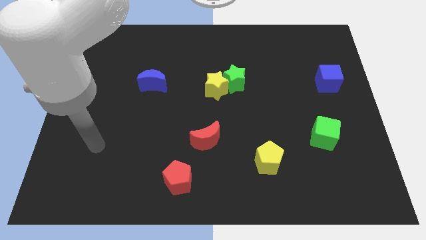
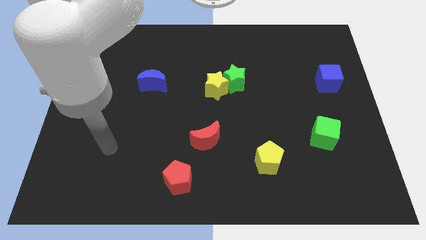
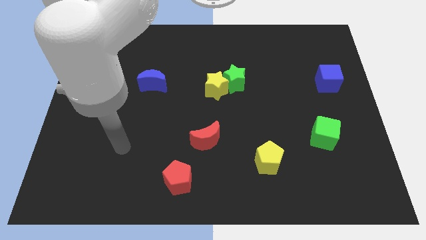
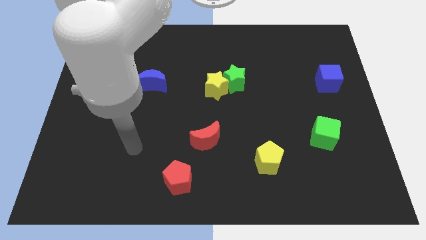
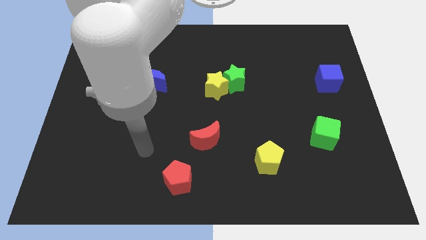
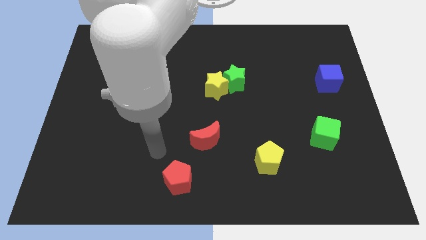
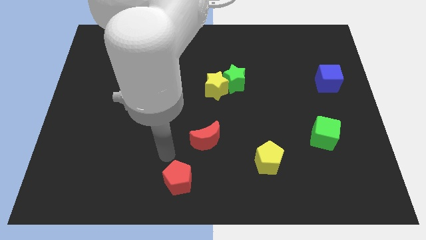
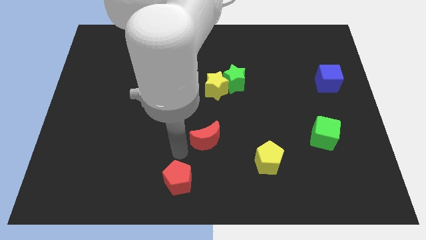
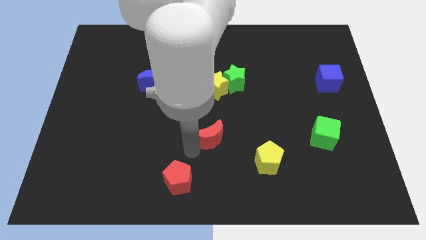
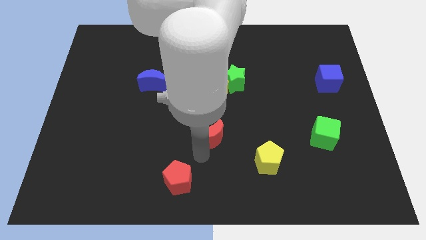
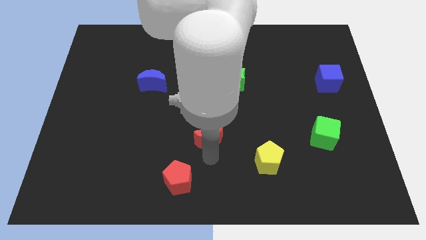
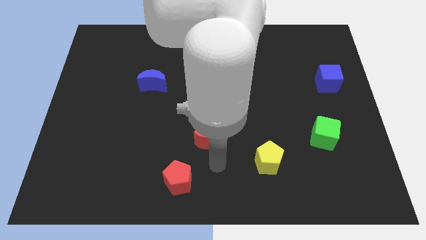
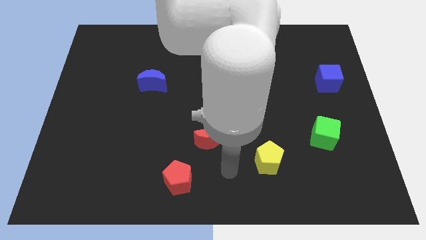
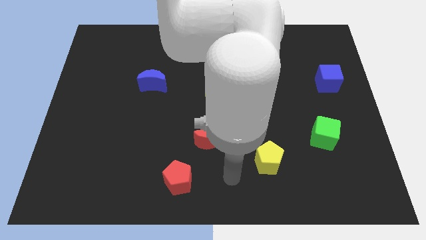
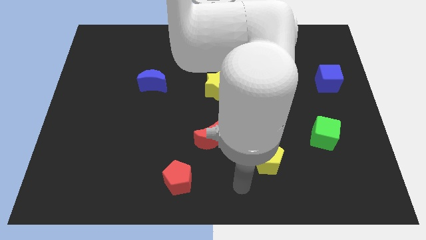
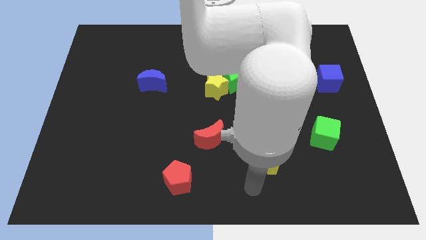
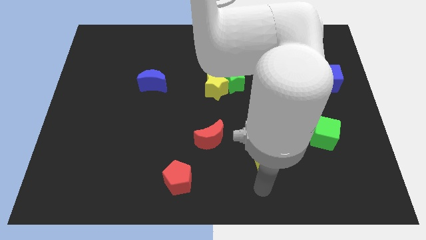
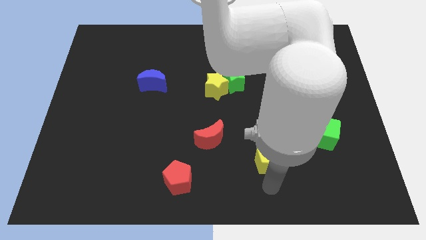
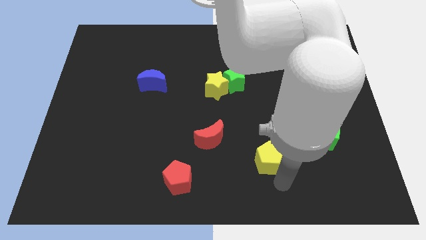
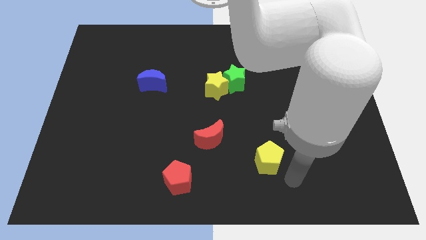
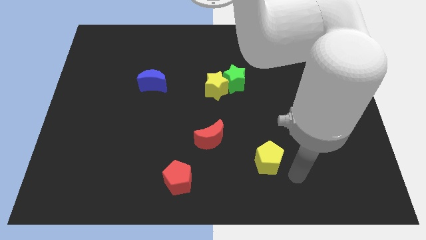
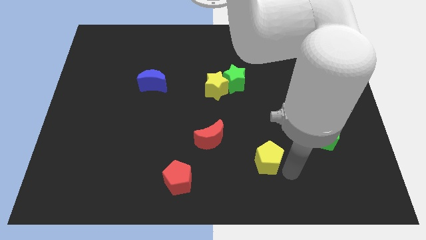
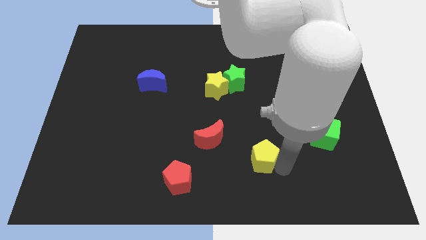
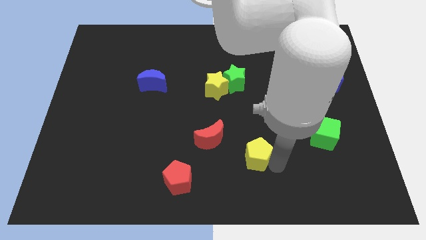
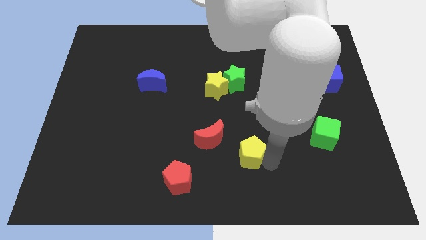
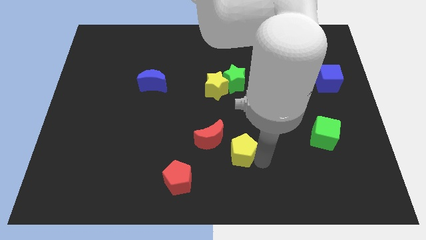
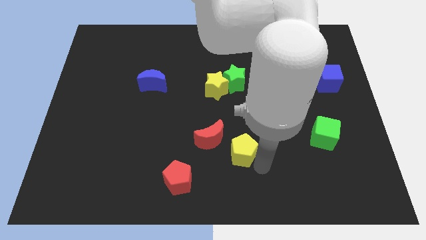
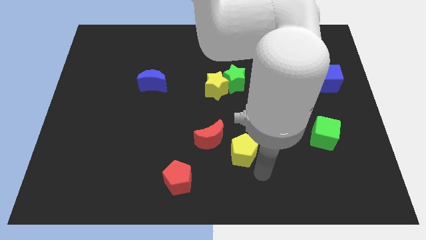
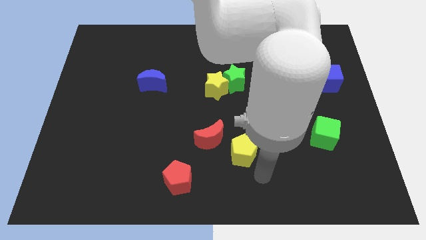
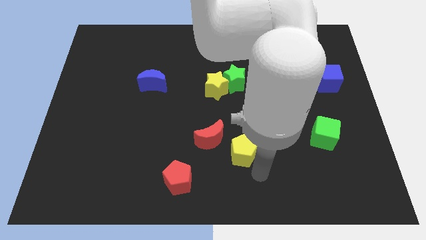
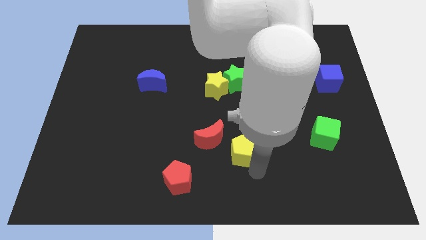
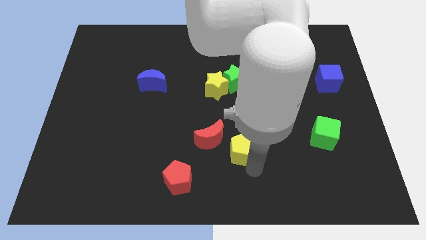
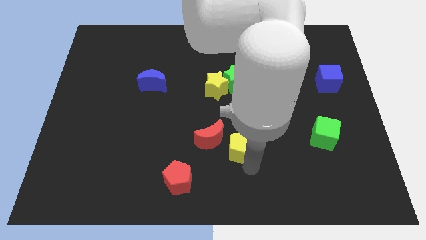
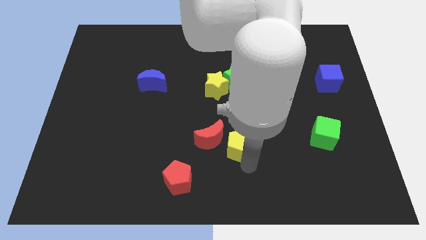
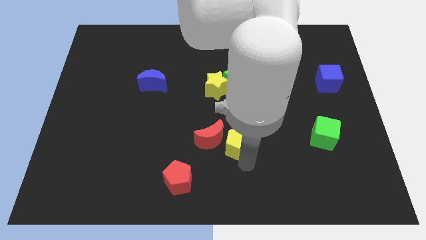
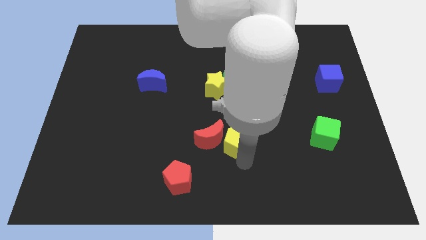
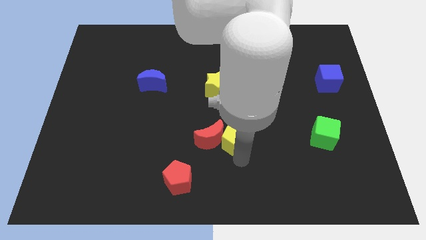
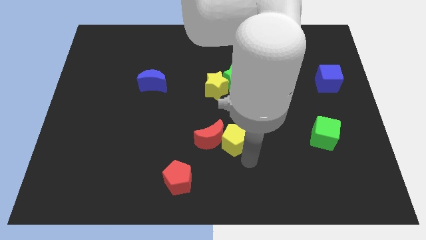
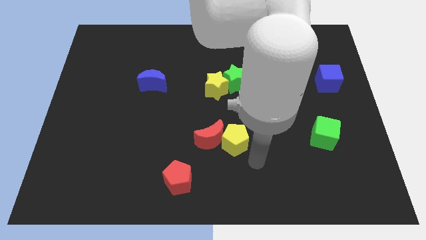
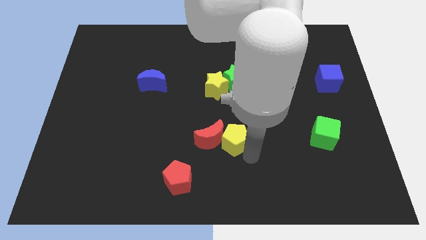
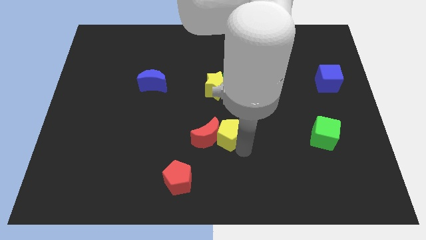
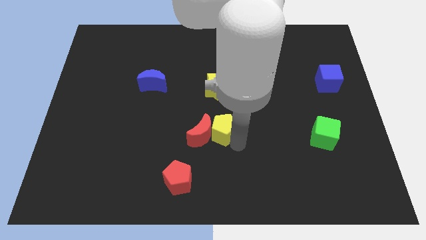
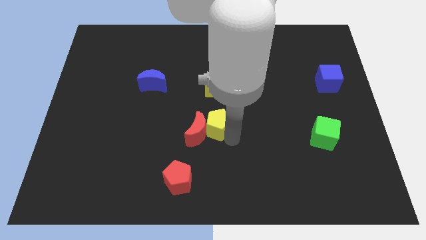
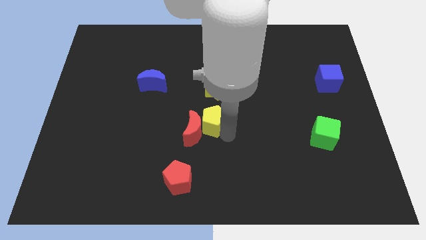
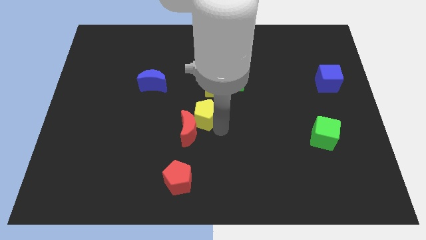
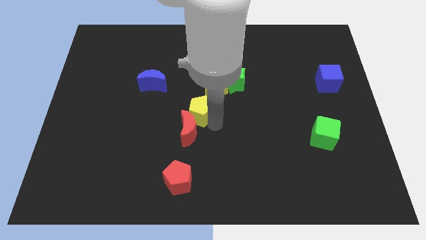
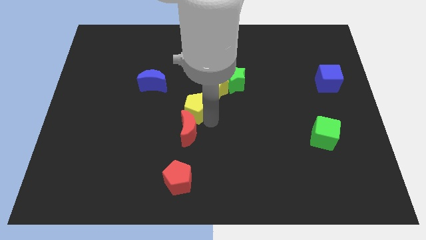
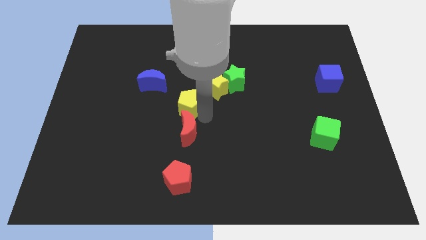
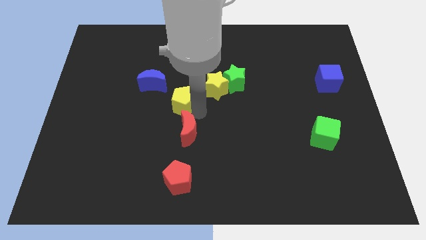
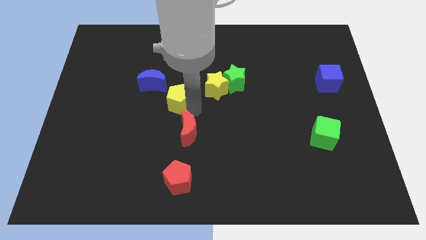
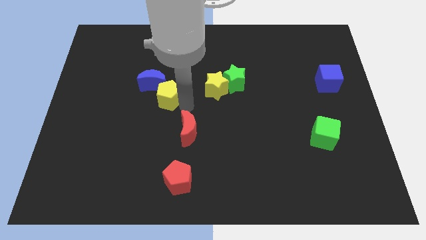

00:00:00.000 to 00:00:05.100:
move the yellow pentagon next to the blue moon

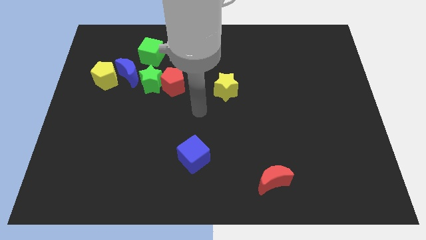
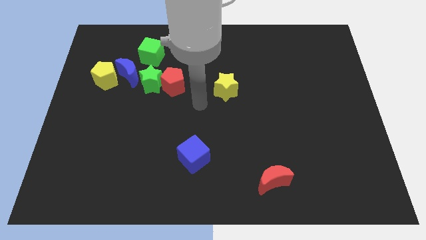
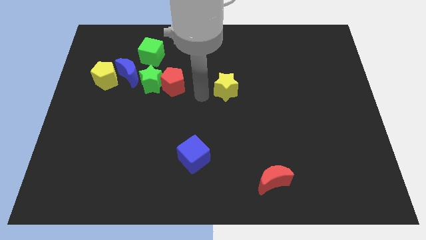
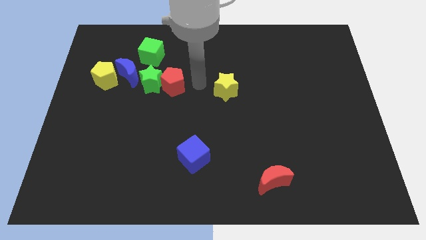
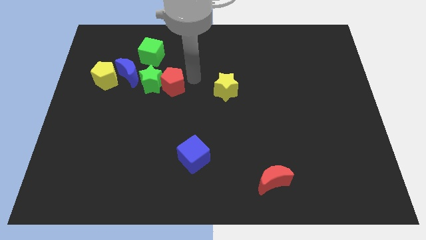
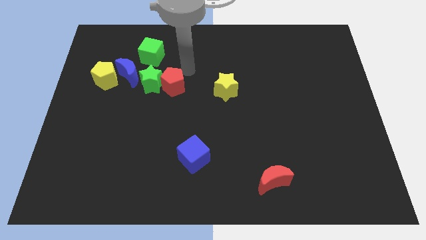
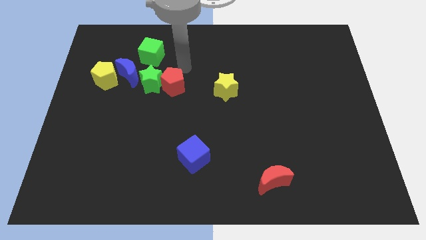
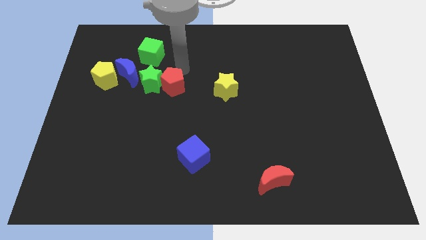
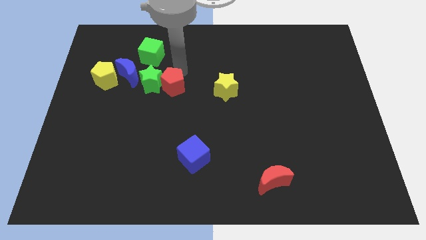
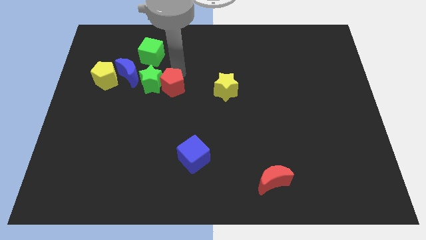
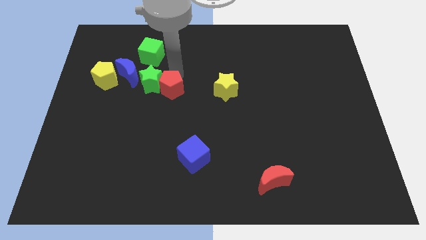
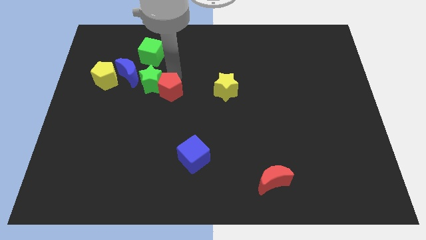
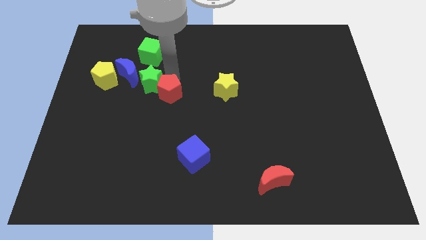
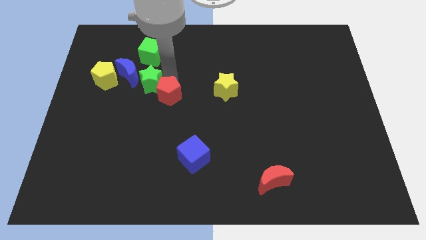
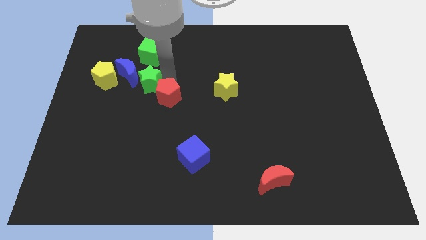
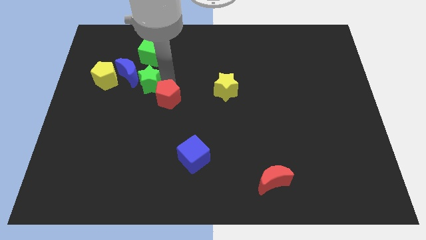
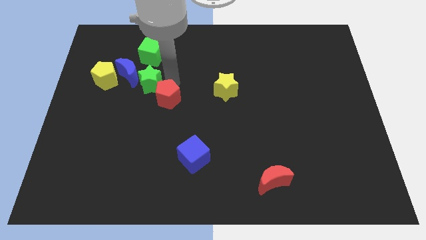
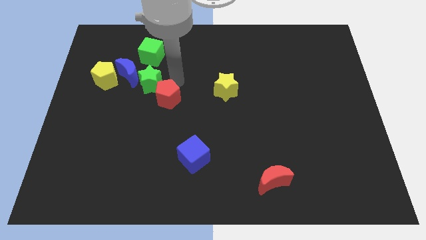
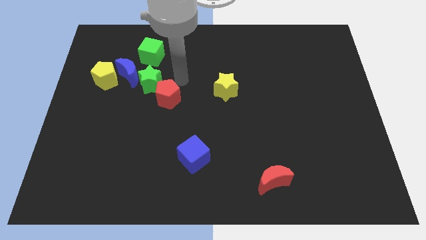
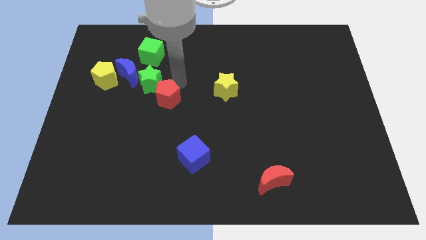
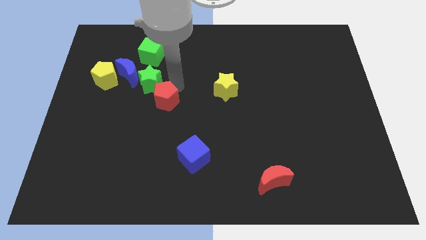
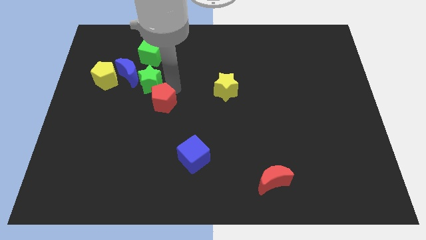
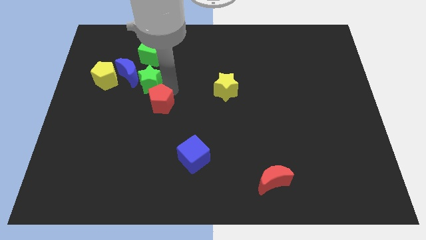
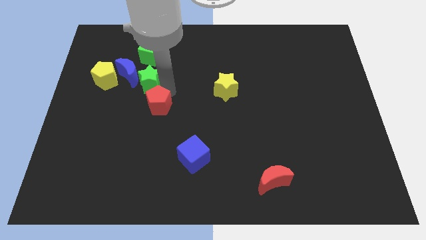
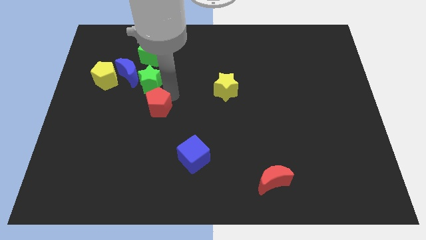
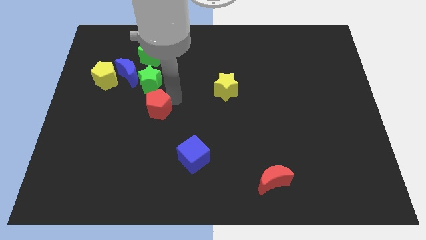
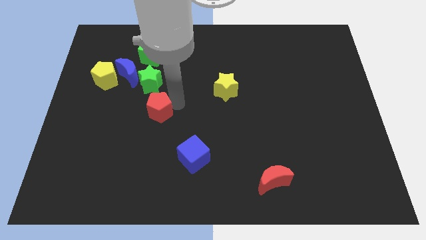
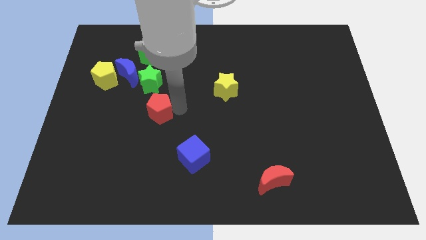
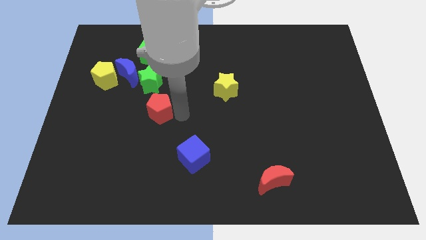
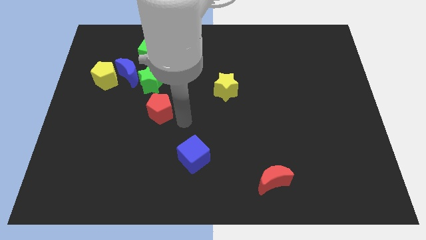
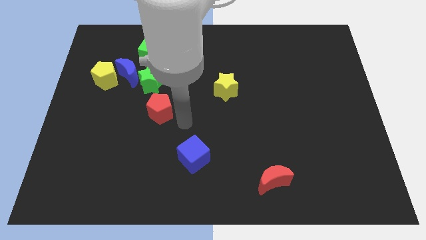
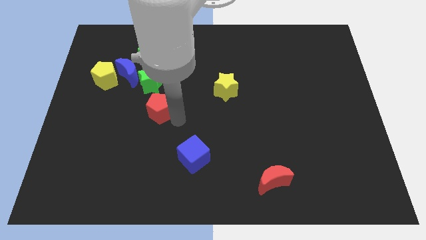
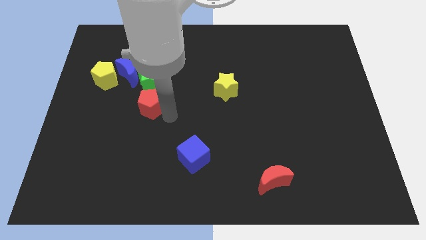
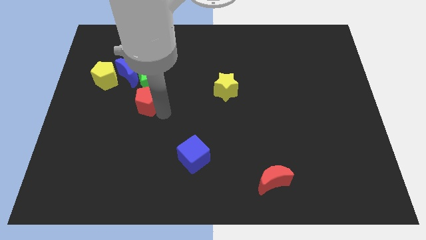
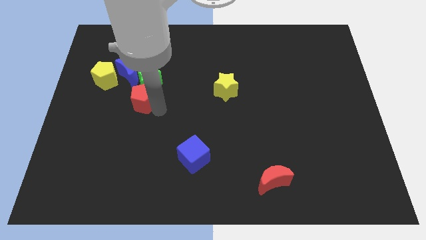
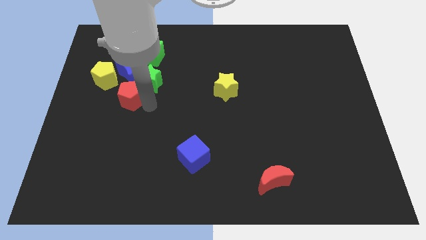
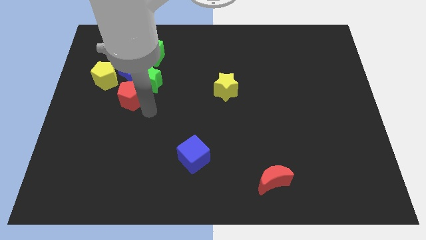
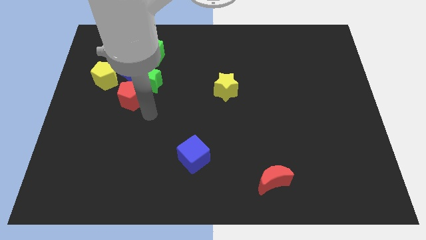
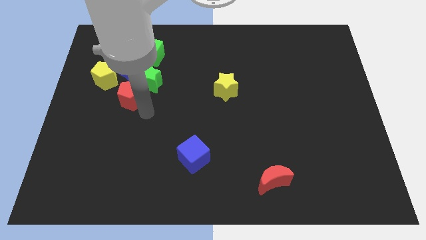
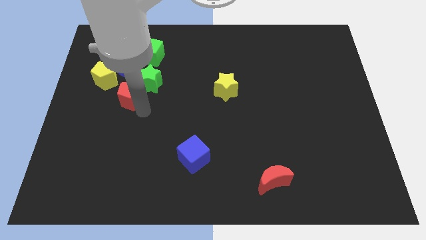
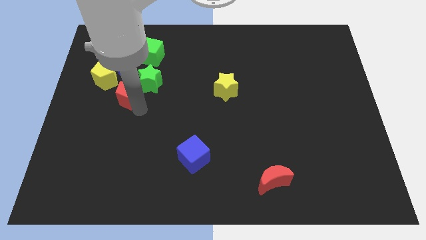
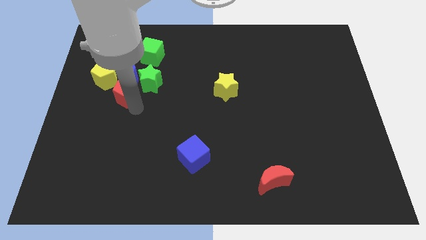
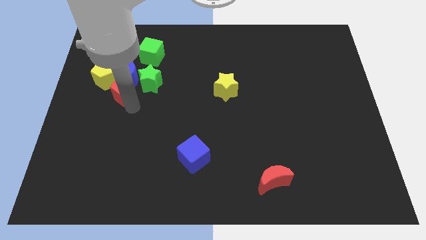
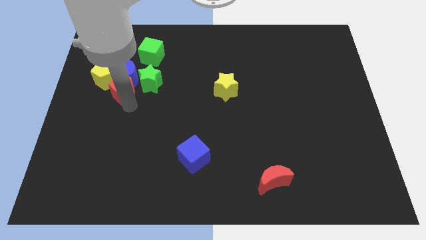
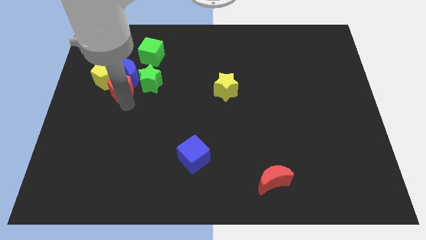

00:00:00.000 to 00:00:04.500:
slide the red pentagon to the yellow pentagon
